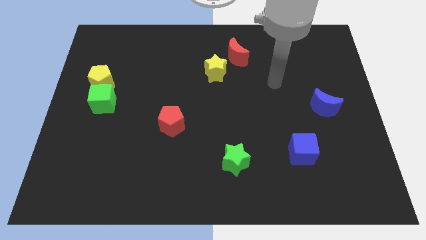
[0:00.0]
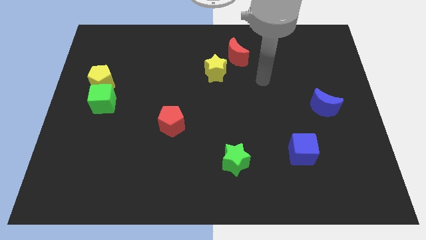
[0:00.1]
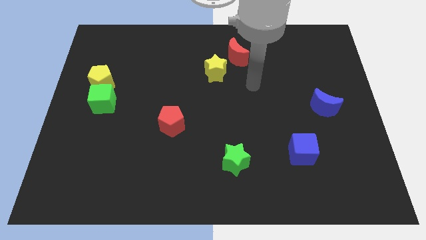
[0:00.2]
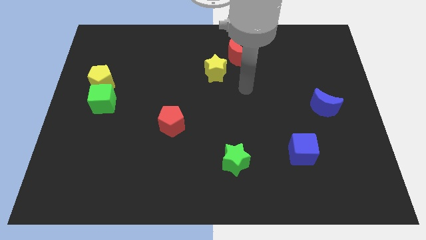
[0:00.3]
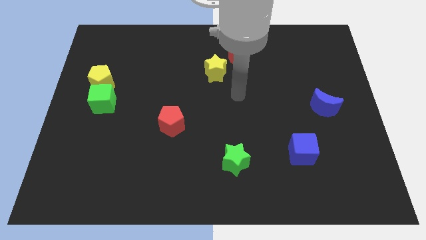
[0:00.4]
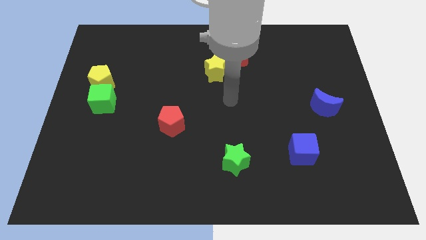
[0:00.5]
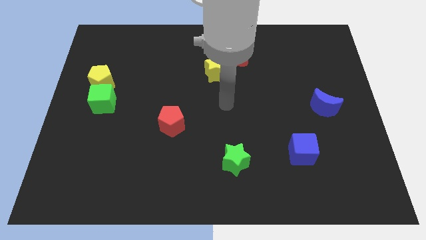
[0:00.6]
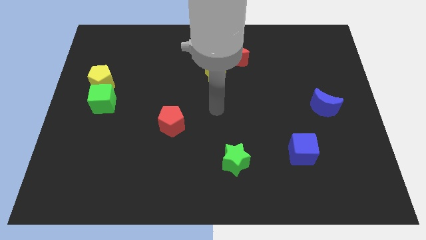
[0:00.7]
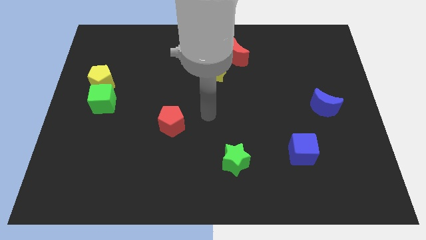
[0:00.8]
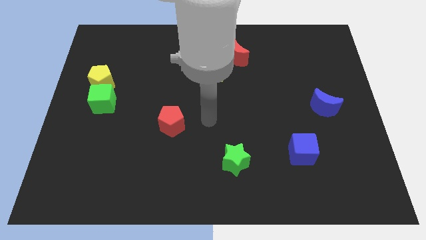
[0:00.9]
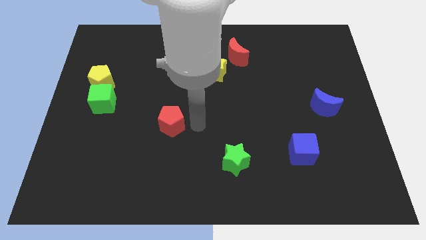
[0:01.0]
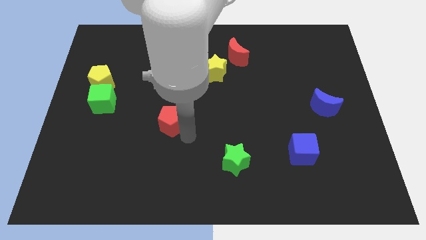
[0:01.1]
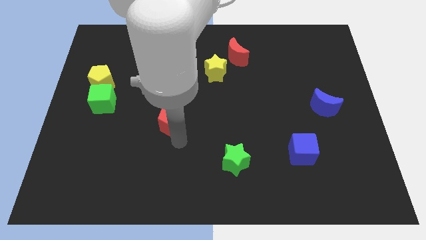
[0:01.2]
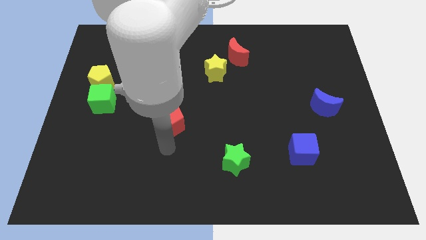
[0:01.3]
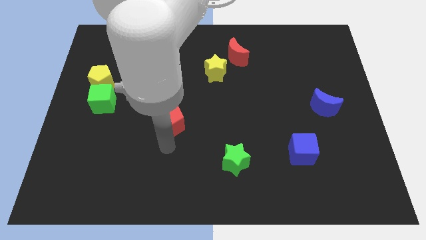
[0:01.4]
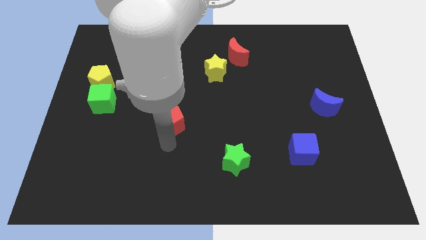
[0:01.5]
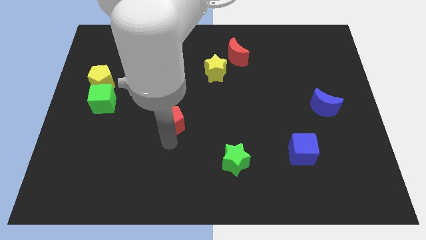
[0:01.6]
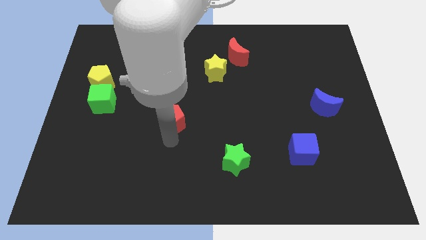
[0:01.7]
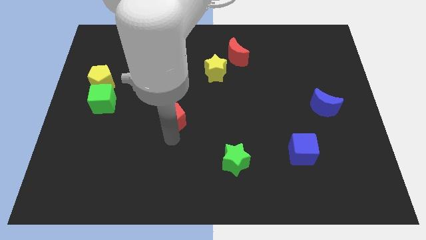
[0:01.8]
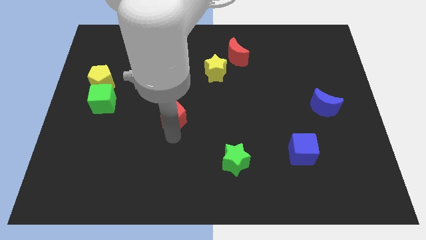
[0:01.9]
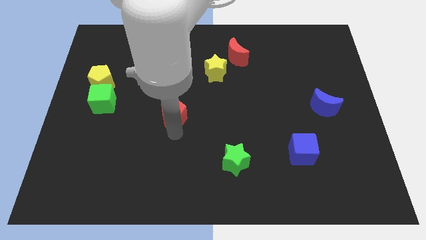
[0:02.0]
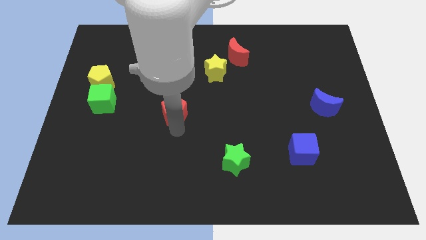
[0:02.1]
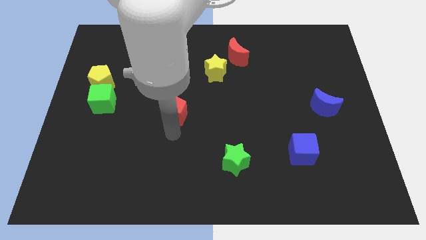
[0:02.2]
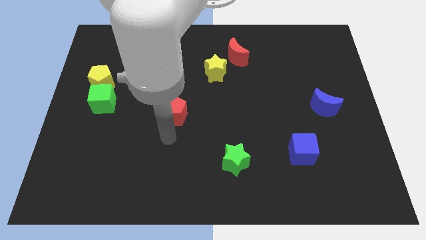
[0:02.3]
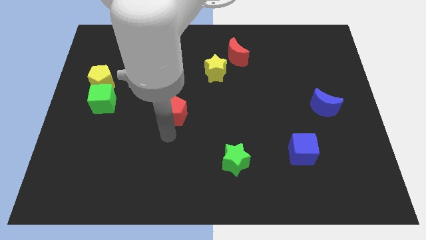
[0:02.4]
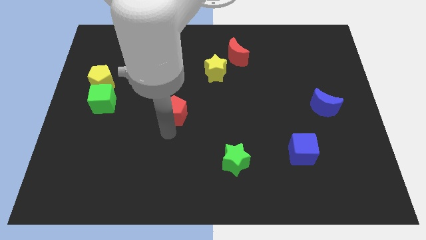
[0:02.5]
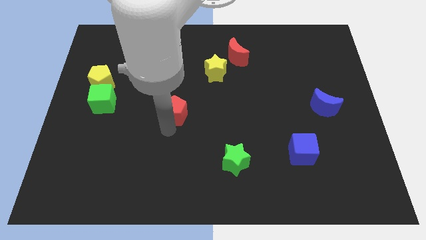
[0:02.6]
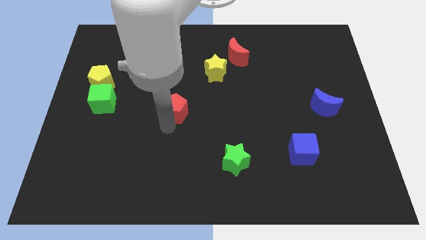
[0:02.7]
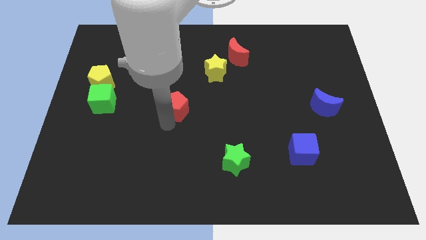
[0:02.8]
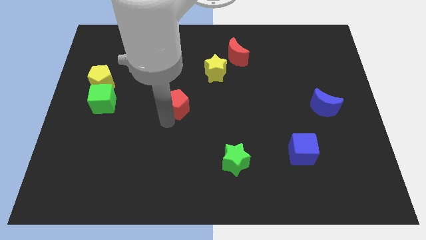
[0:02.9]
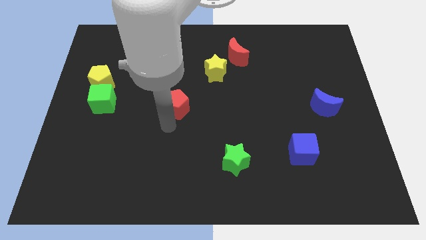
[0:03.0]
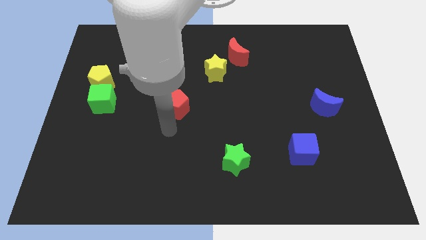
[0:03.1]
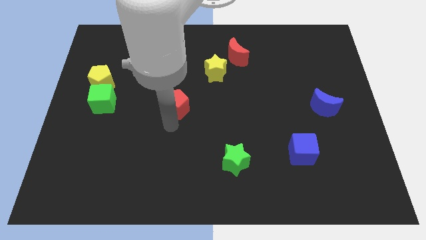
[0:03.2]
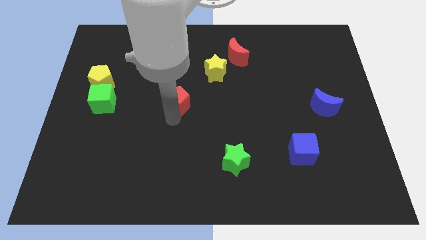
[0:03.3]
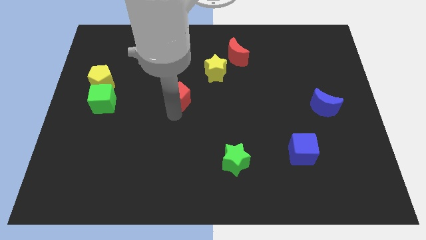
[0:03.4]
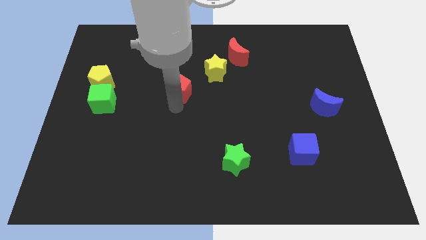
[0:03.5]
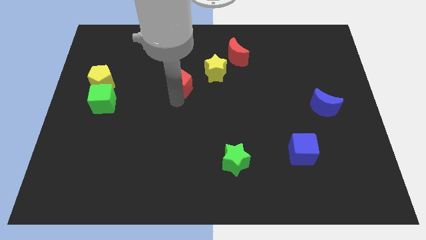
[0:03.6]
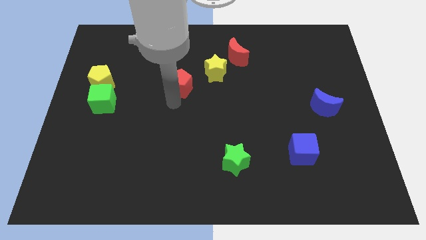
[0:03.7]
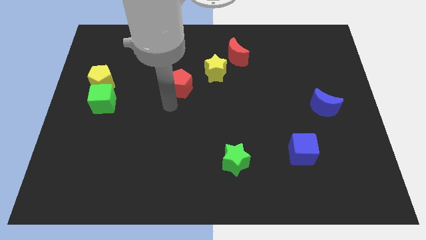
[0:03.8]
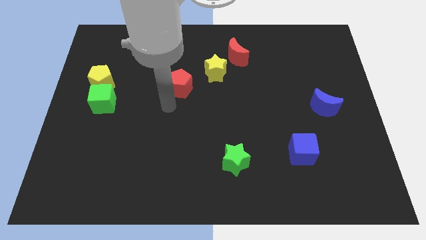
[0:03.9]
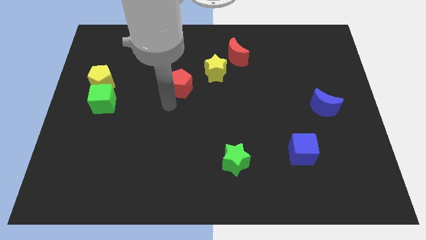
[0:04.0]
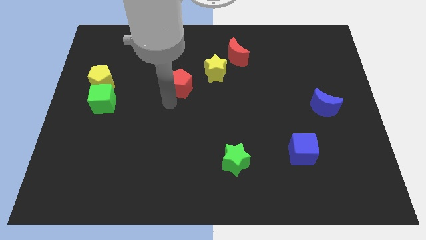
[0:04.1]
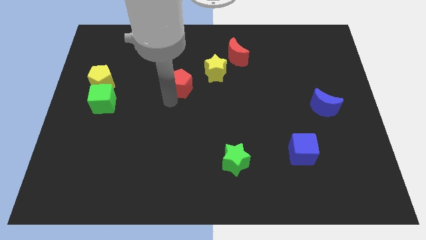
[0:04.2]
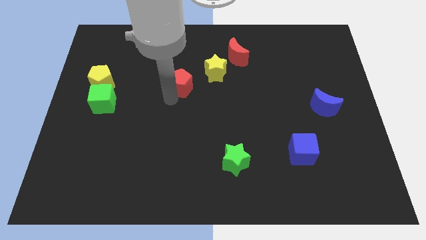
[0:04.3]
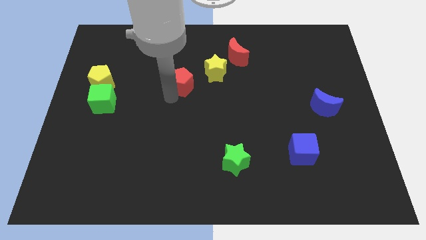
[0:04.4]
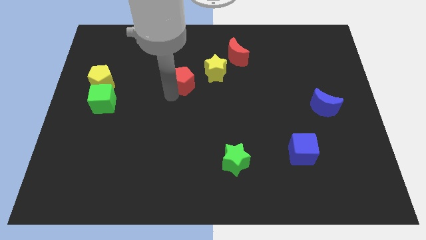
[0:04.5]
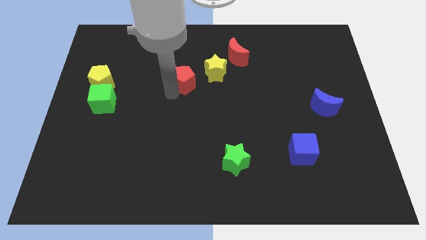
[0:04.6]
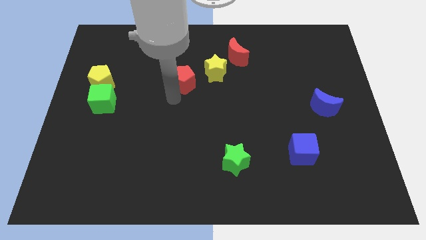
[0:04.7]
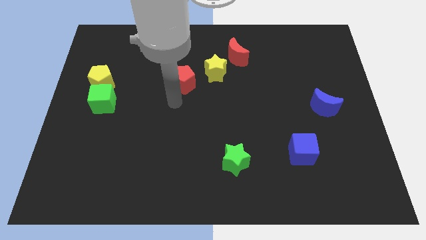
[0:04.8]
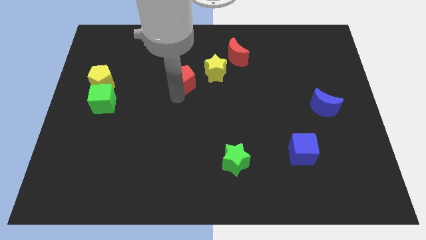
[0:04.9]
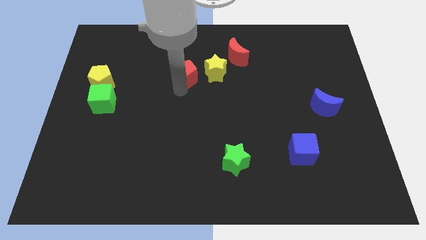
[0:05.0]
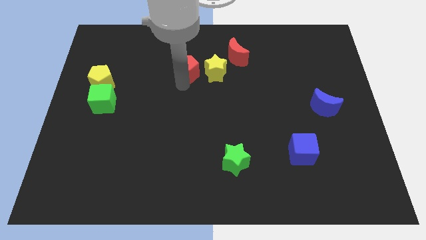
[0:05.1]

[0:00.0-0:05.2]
push the red pentagon to the top left side of the yellow star

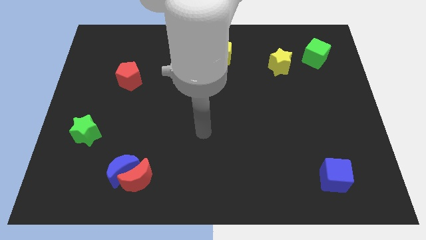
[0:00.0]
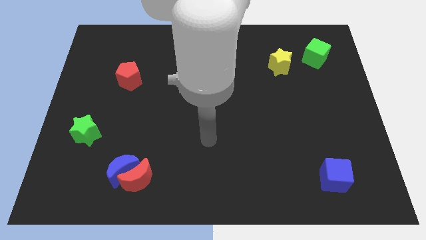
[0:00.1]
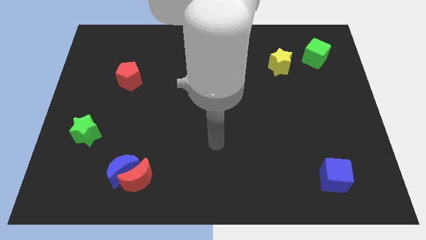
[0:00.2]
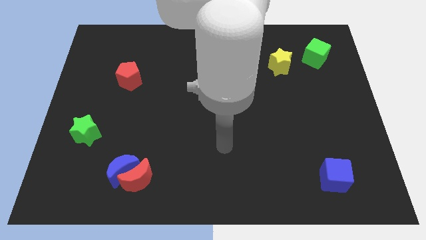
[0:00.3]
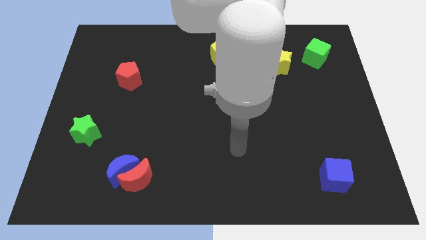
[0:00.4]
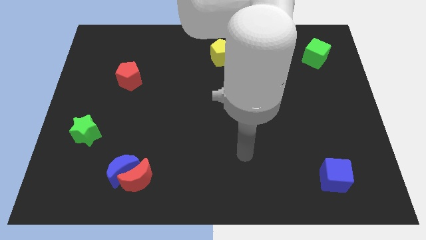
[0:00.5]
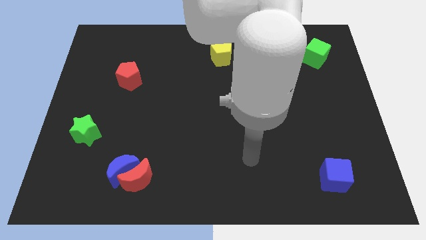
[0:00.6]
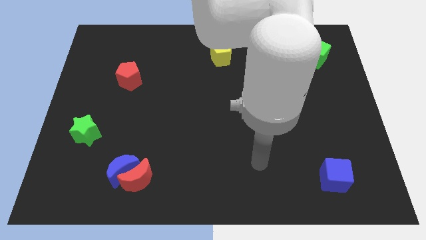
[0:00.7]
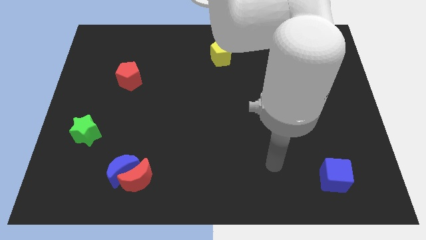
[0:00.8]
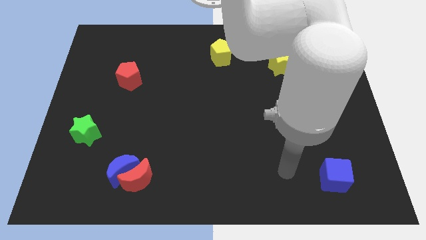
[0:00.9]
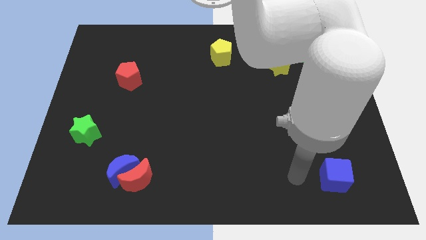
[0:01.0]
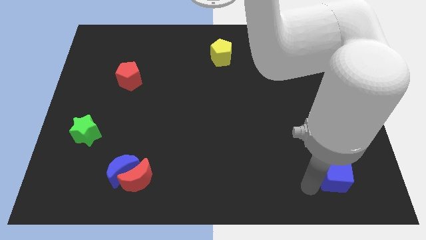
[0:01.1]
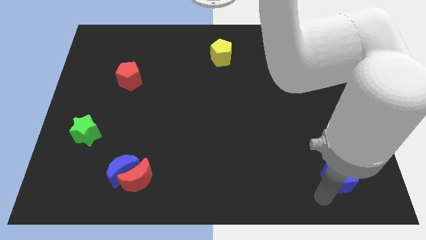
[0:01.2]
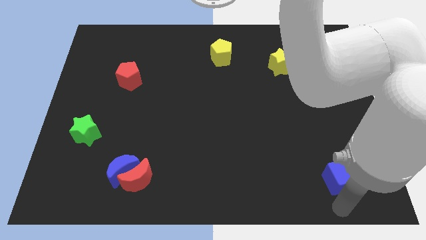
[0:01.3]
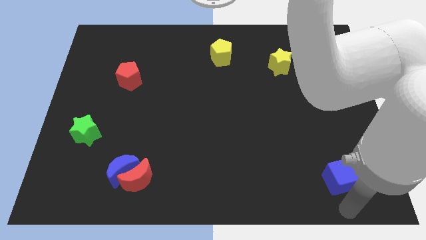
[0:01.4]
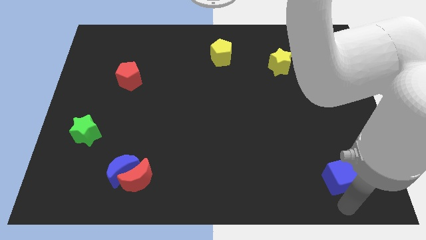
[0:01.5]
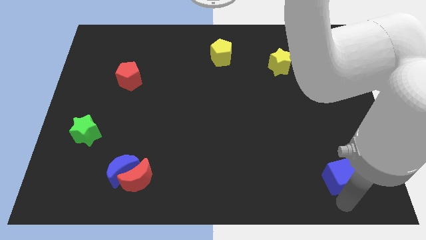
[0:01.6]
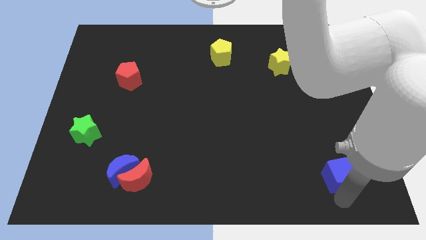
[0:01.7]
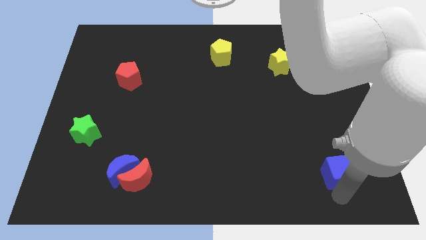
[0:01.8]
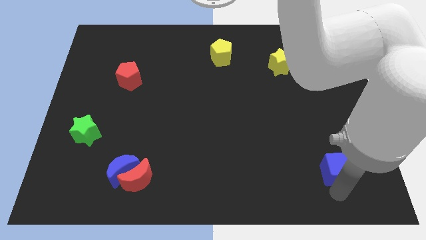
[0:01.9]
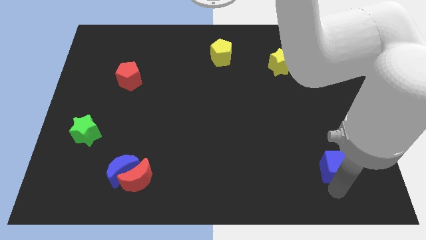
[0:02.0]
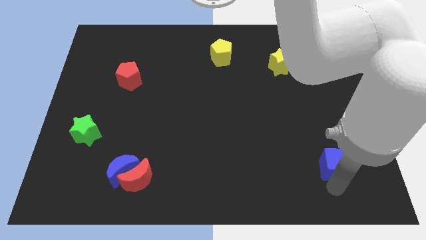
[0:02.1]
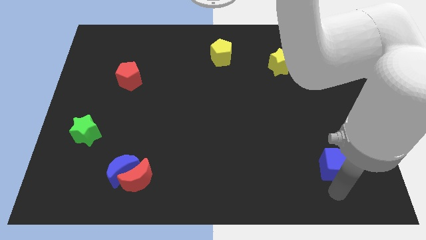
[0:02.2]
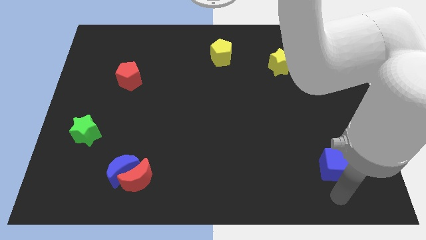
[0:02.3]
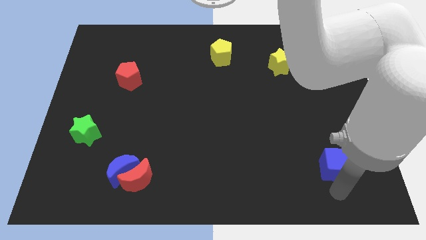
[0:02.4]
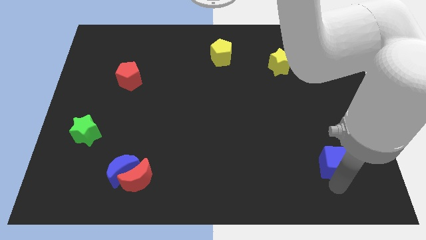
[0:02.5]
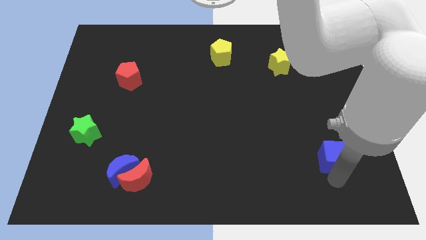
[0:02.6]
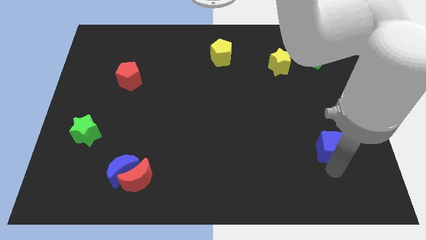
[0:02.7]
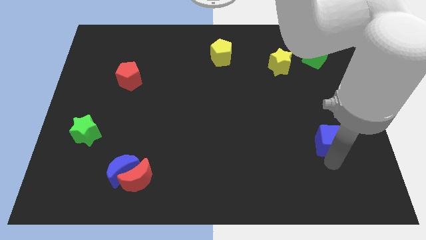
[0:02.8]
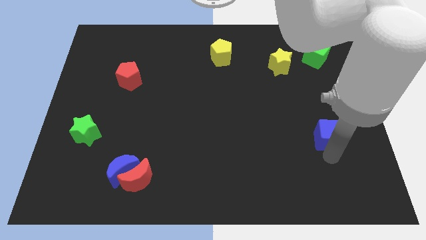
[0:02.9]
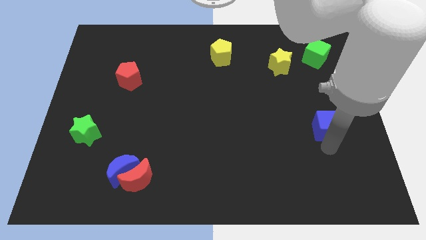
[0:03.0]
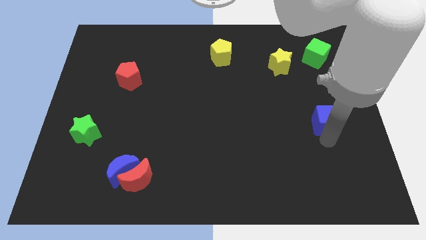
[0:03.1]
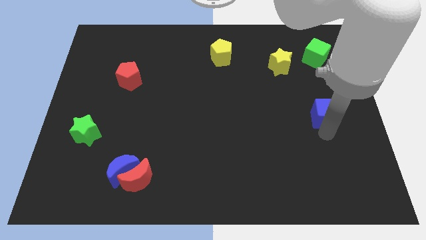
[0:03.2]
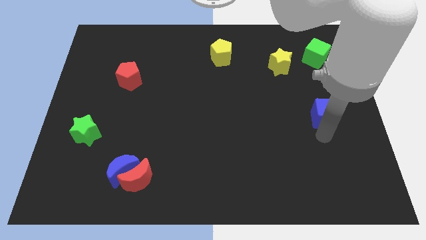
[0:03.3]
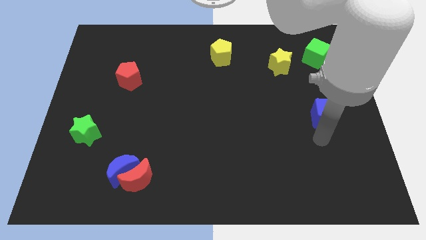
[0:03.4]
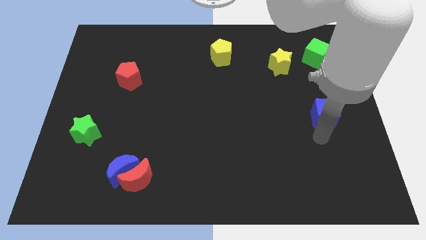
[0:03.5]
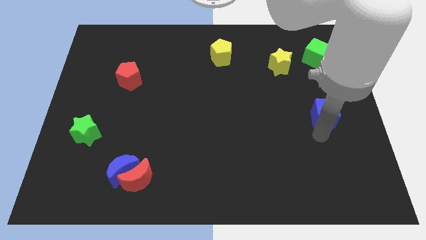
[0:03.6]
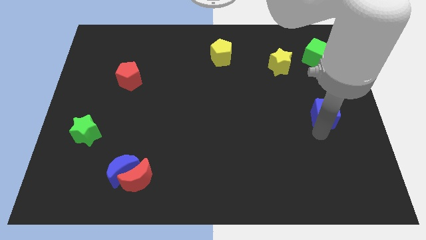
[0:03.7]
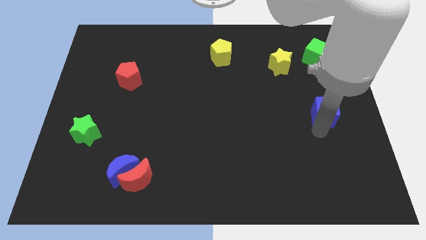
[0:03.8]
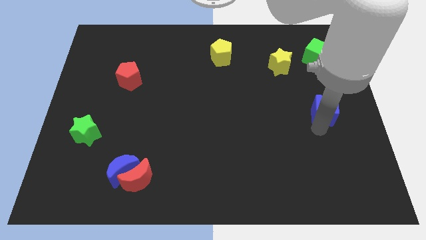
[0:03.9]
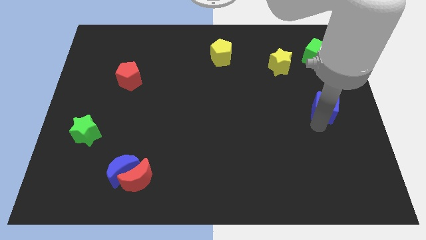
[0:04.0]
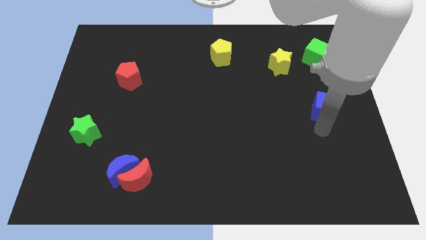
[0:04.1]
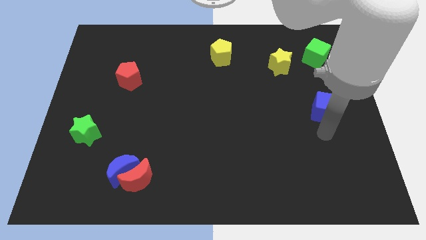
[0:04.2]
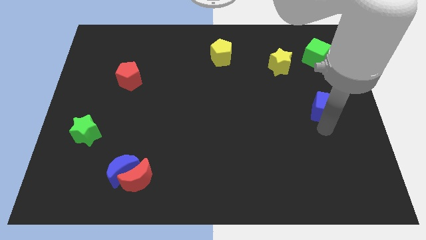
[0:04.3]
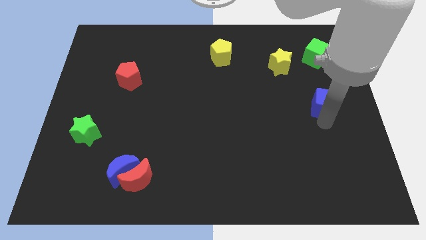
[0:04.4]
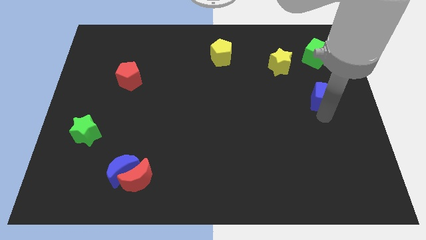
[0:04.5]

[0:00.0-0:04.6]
move the blue cube to the bottom of the green cube
